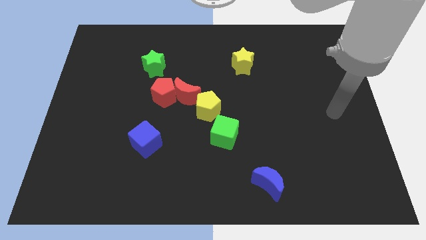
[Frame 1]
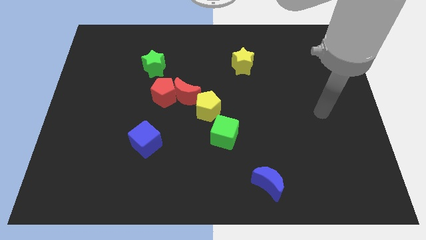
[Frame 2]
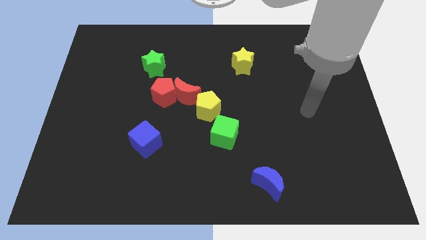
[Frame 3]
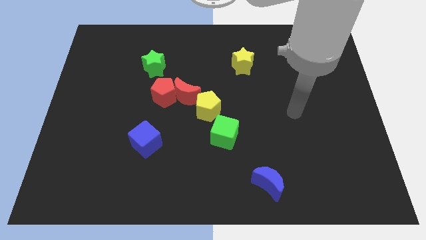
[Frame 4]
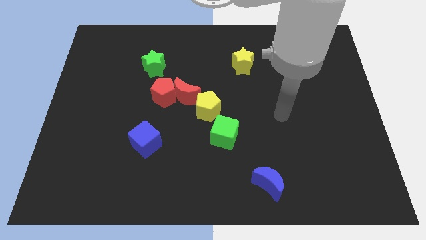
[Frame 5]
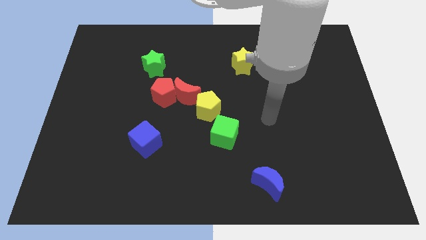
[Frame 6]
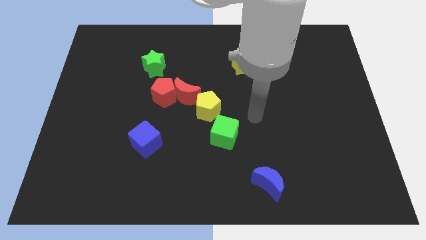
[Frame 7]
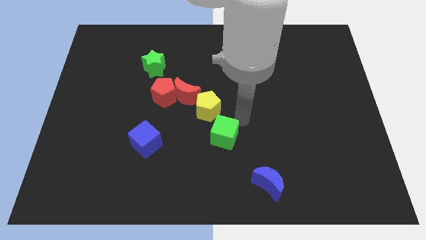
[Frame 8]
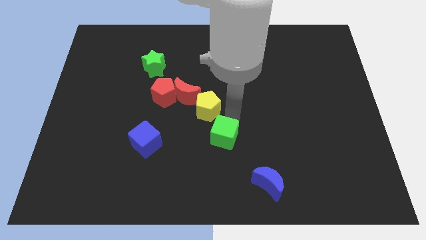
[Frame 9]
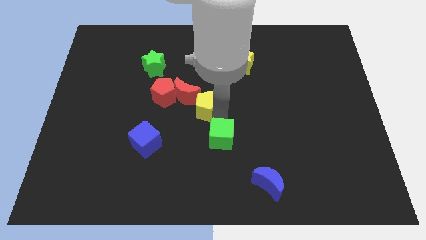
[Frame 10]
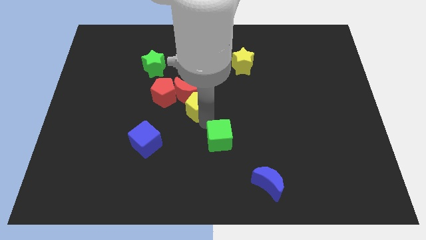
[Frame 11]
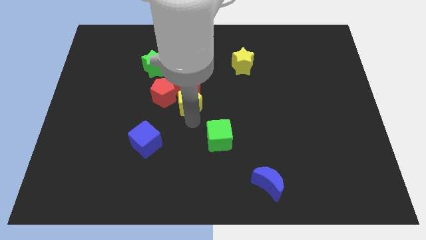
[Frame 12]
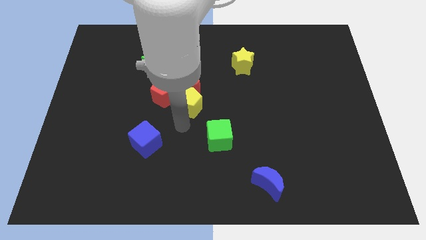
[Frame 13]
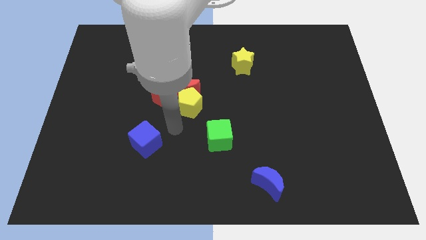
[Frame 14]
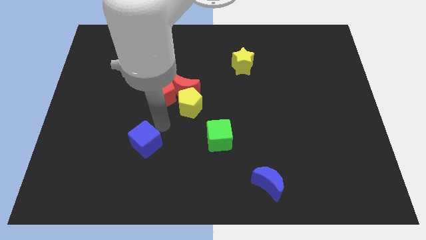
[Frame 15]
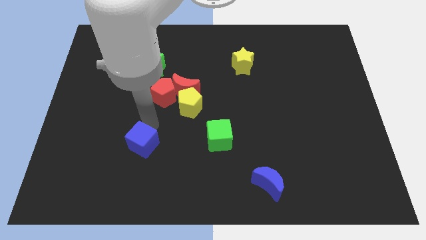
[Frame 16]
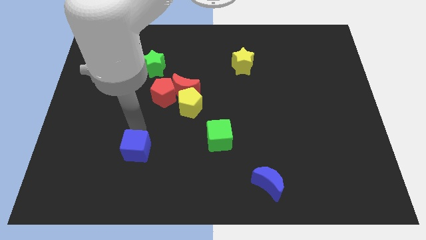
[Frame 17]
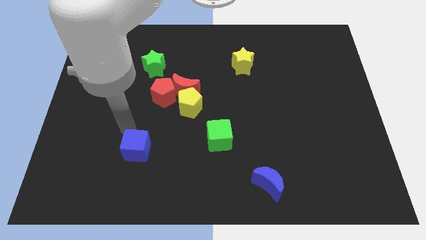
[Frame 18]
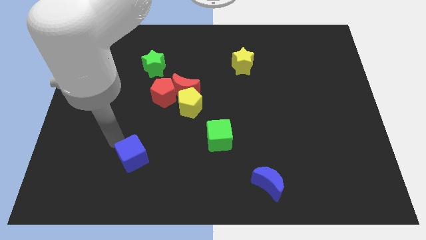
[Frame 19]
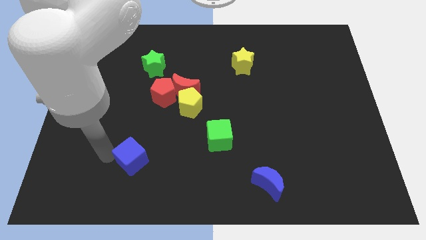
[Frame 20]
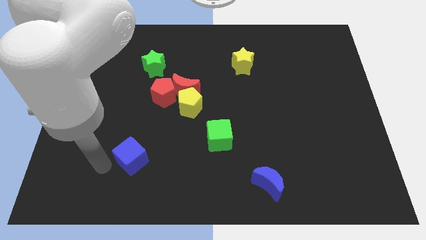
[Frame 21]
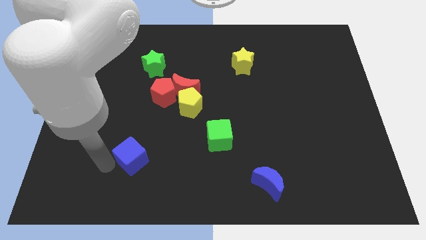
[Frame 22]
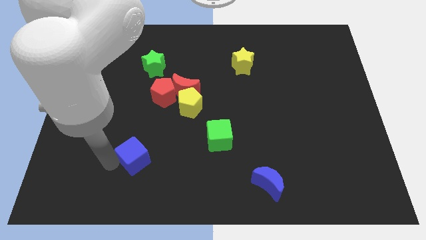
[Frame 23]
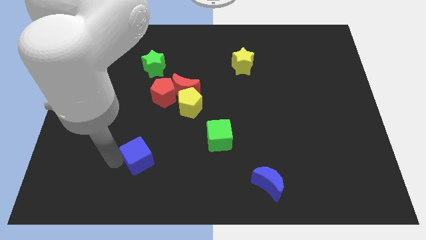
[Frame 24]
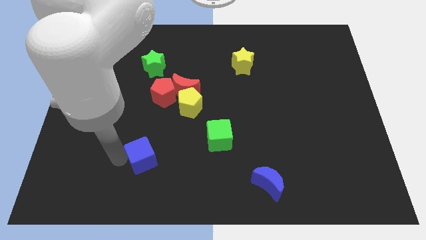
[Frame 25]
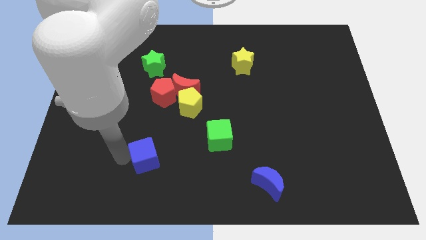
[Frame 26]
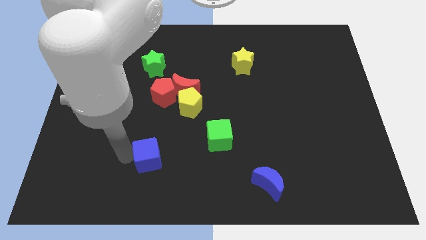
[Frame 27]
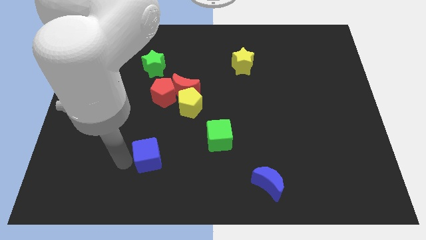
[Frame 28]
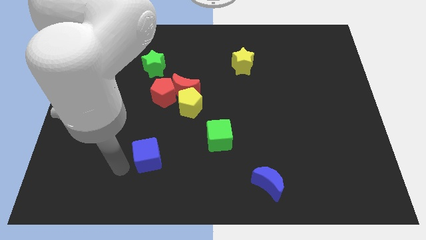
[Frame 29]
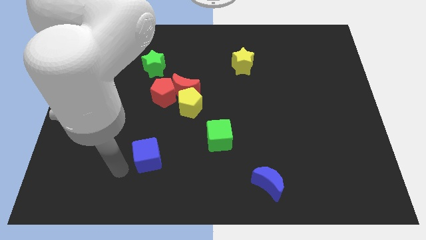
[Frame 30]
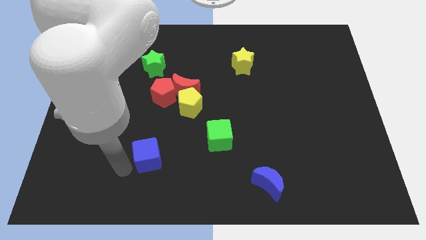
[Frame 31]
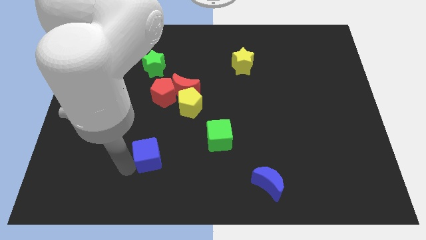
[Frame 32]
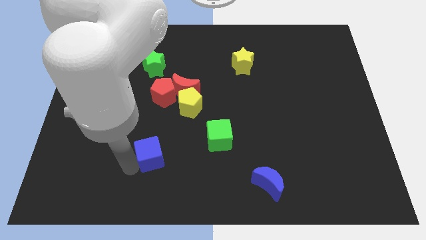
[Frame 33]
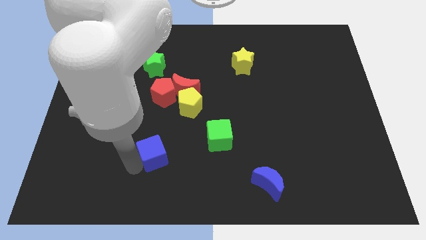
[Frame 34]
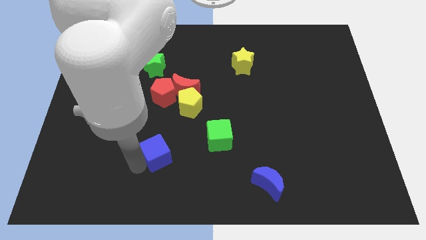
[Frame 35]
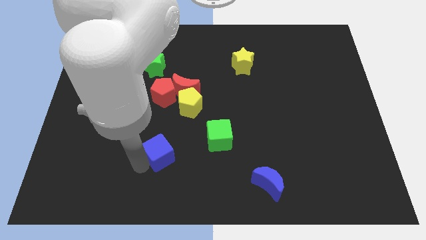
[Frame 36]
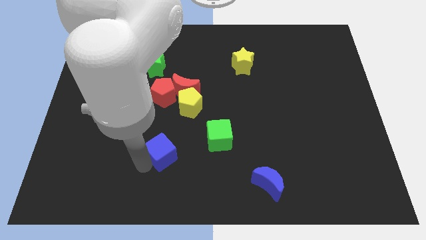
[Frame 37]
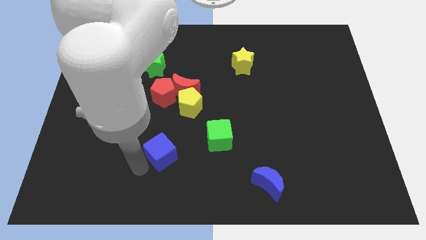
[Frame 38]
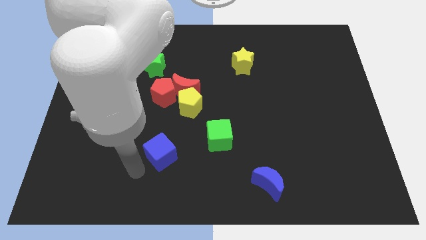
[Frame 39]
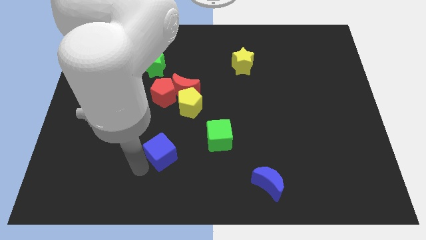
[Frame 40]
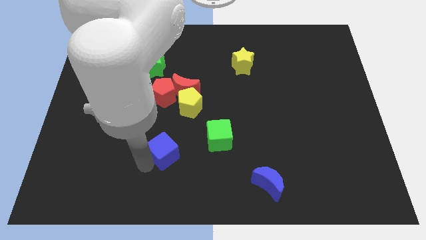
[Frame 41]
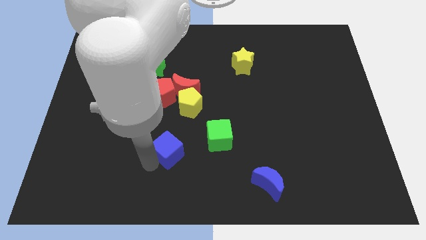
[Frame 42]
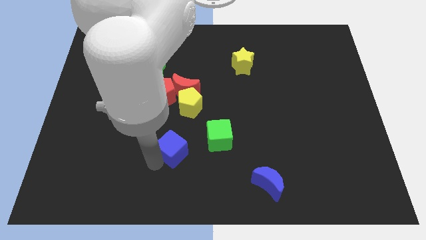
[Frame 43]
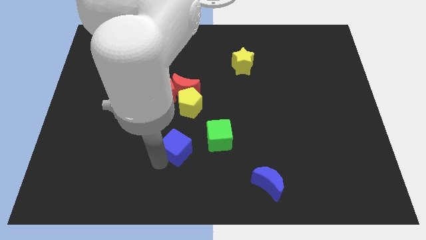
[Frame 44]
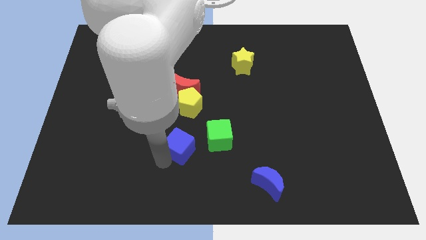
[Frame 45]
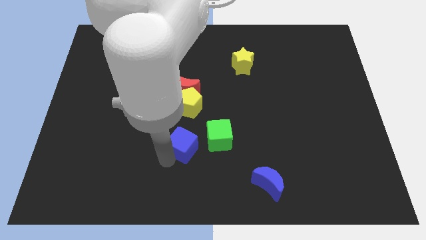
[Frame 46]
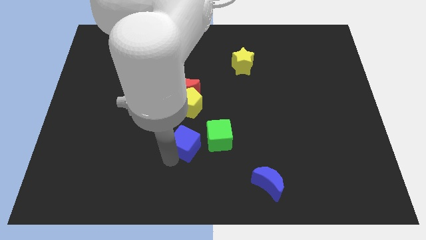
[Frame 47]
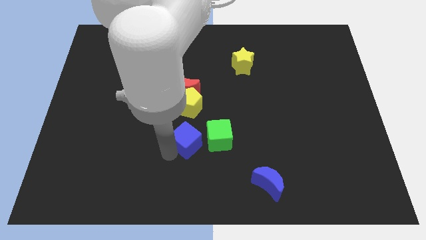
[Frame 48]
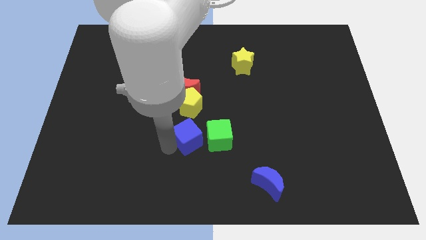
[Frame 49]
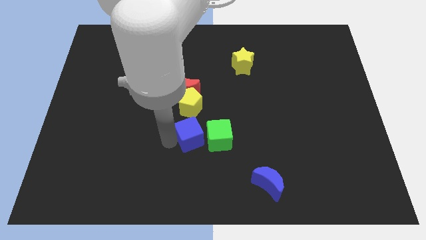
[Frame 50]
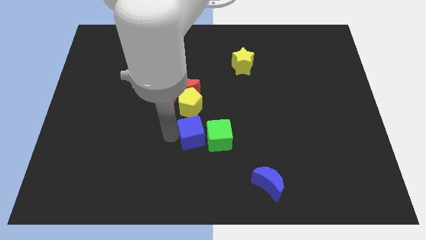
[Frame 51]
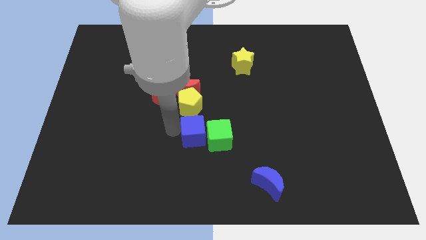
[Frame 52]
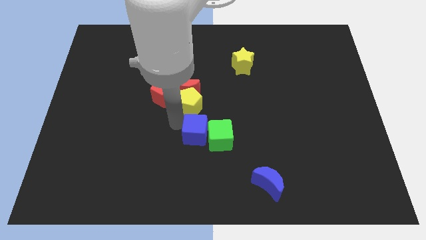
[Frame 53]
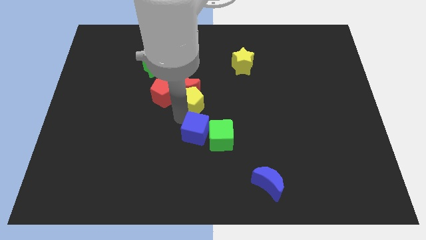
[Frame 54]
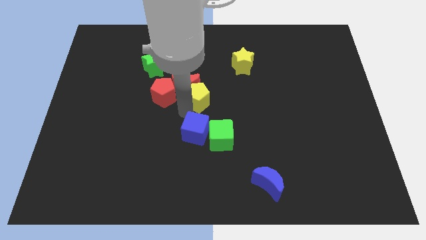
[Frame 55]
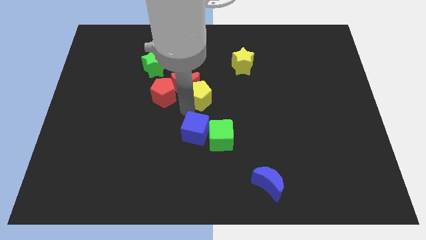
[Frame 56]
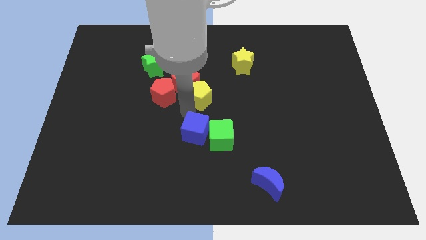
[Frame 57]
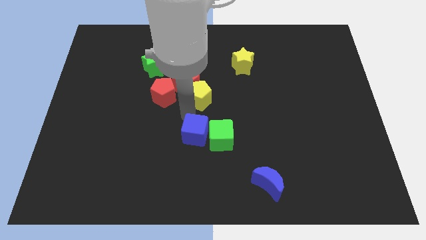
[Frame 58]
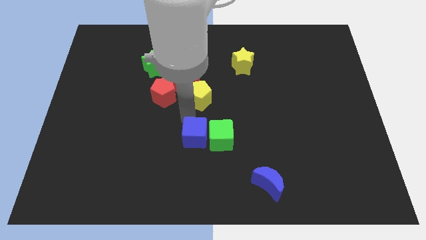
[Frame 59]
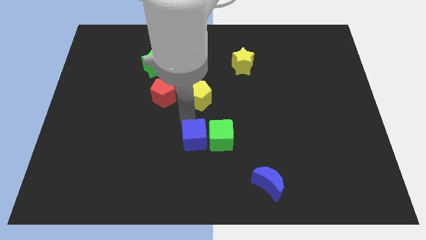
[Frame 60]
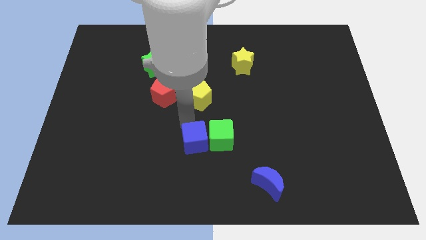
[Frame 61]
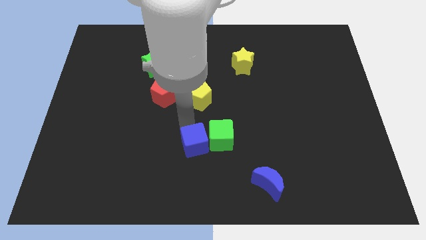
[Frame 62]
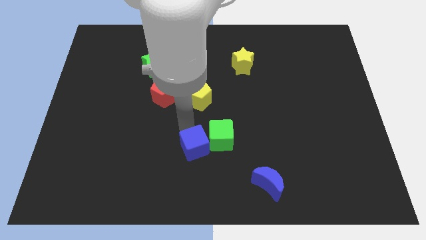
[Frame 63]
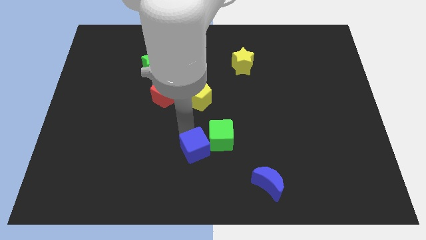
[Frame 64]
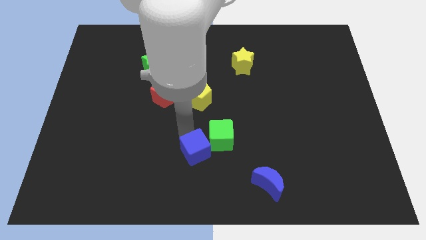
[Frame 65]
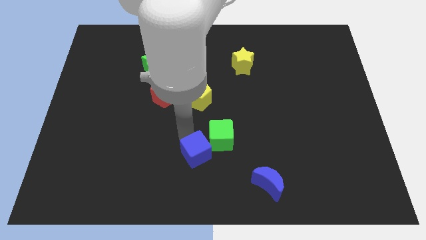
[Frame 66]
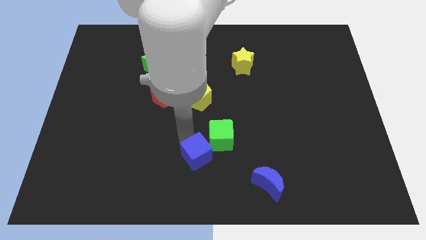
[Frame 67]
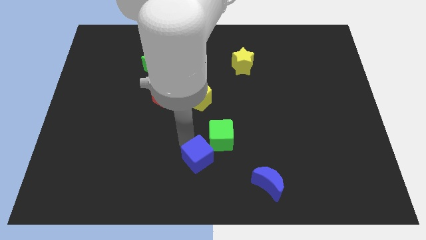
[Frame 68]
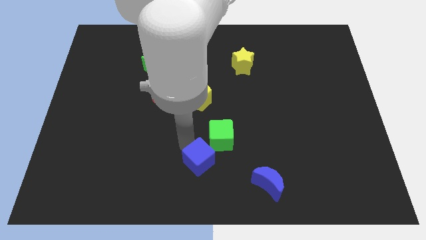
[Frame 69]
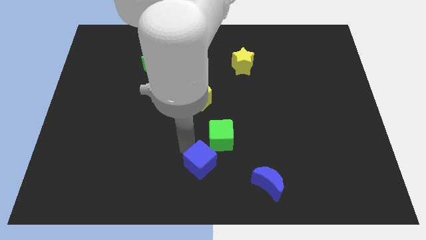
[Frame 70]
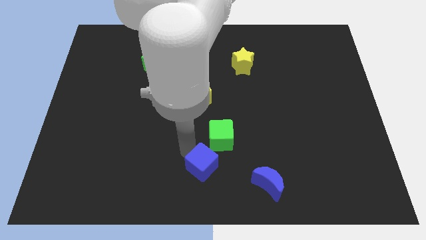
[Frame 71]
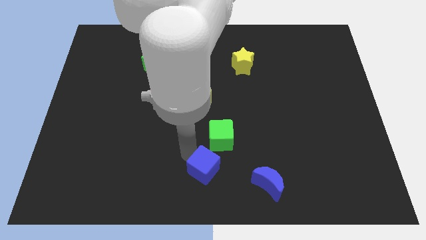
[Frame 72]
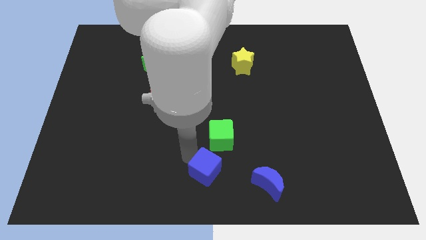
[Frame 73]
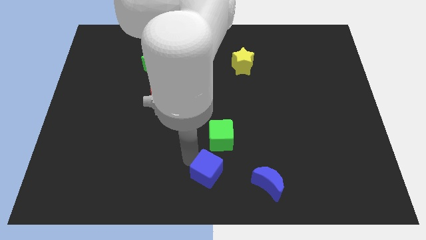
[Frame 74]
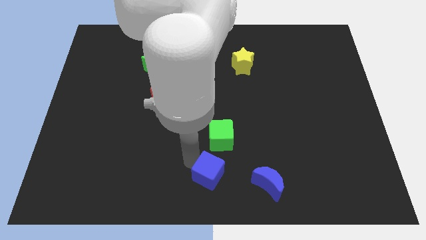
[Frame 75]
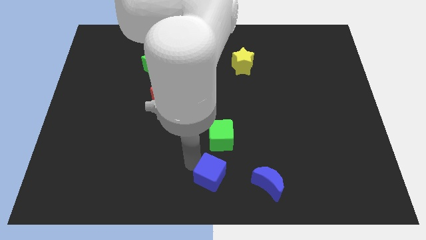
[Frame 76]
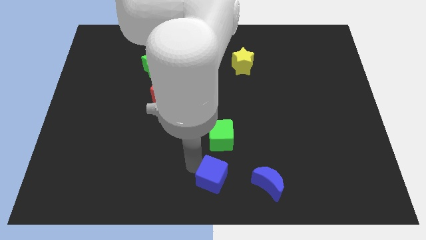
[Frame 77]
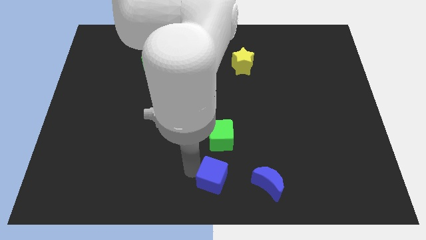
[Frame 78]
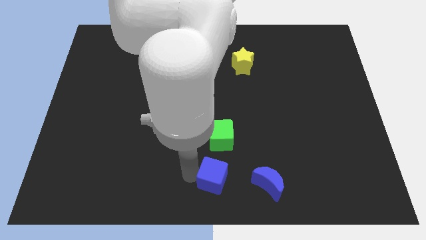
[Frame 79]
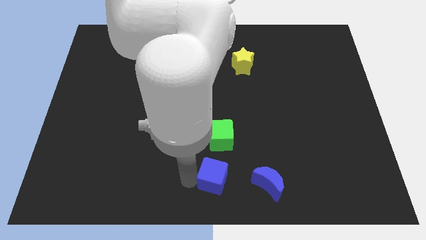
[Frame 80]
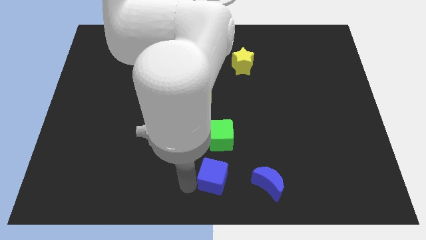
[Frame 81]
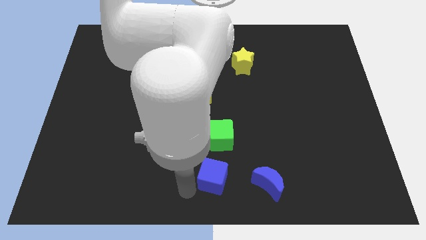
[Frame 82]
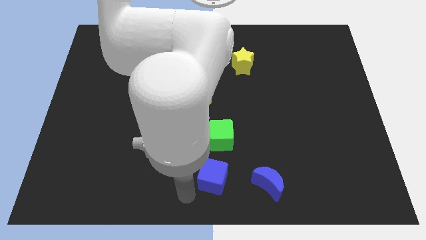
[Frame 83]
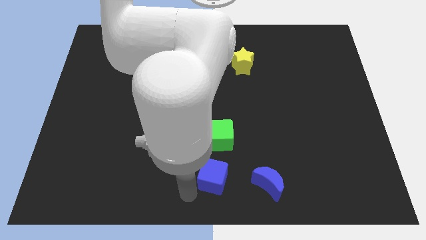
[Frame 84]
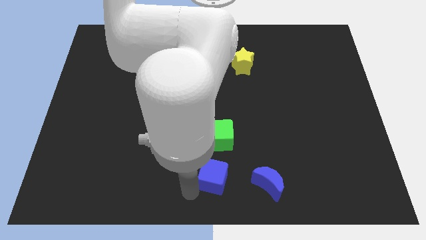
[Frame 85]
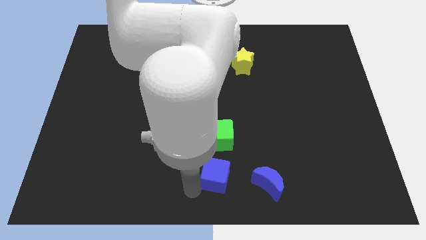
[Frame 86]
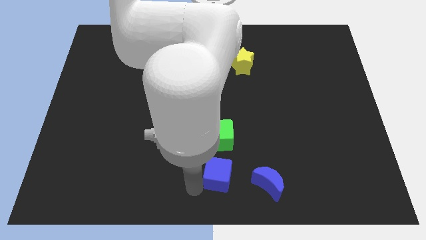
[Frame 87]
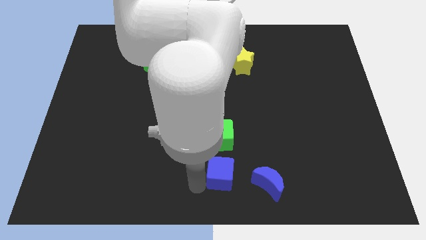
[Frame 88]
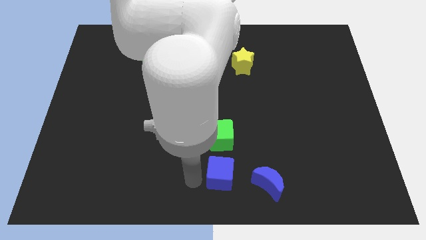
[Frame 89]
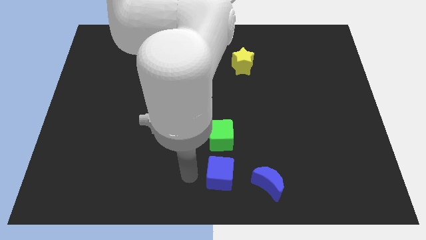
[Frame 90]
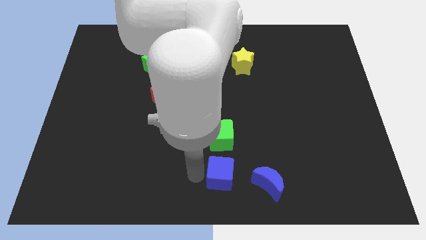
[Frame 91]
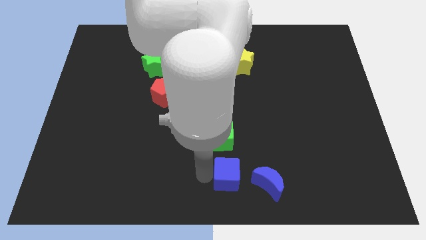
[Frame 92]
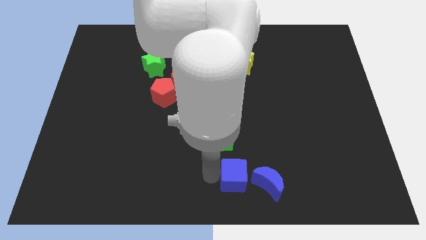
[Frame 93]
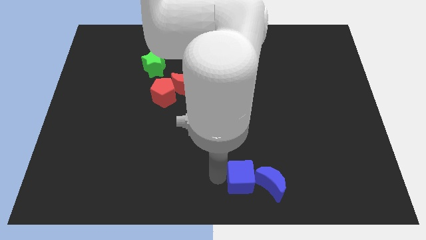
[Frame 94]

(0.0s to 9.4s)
push the blue cube next to the blue moon
